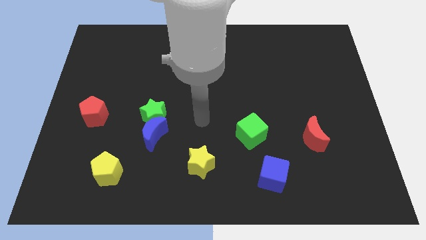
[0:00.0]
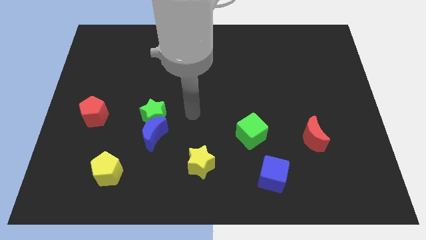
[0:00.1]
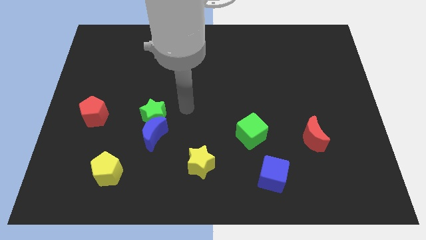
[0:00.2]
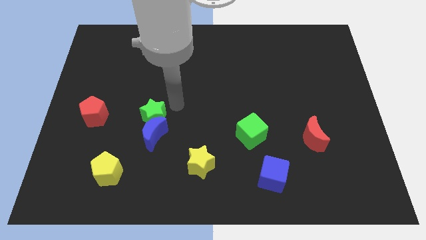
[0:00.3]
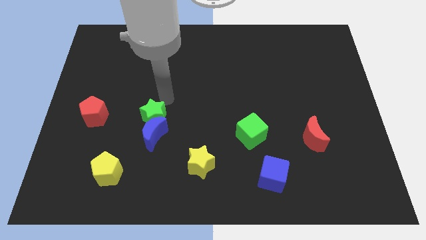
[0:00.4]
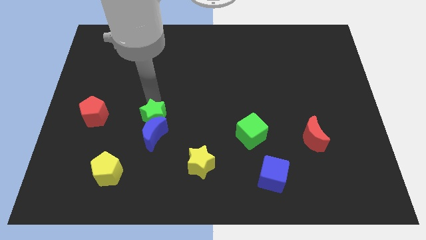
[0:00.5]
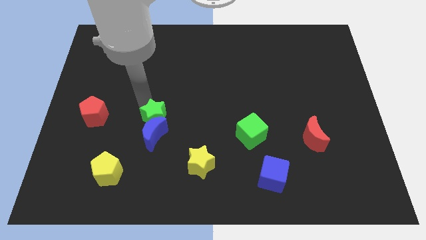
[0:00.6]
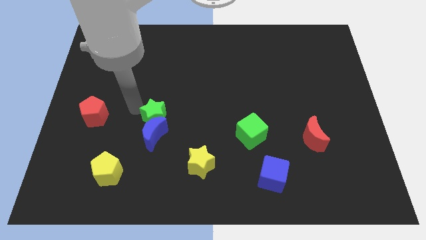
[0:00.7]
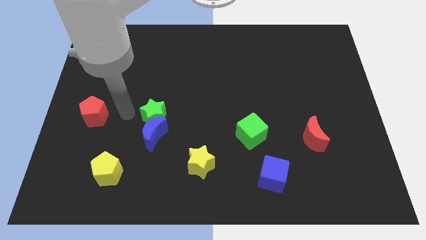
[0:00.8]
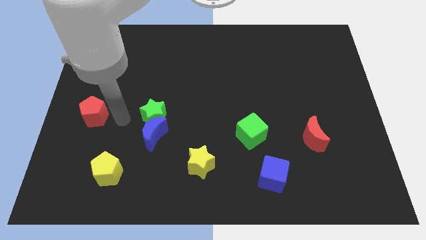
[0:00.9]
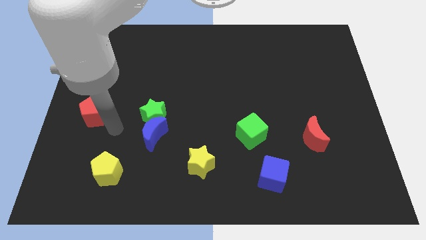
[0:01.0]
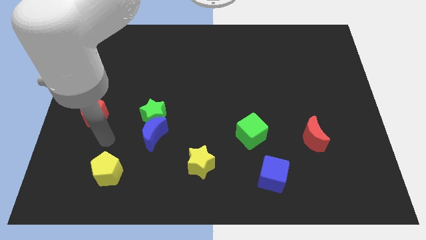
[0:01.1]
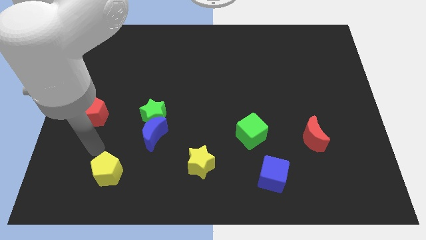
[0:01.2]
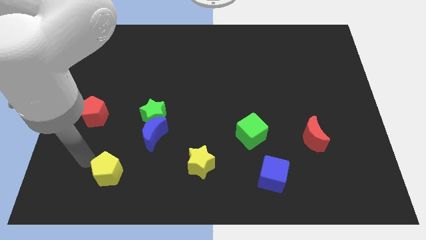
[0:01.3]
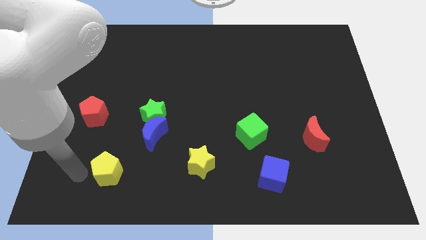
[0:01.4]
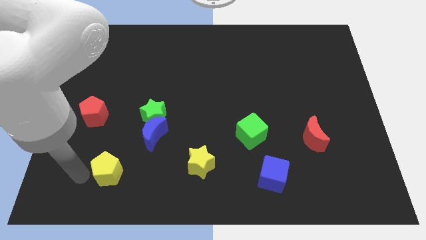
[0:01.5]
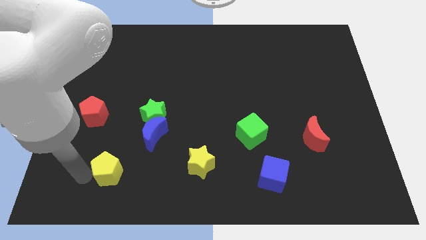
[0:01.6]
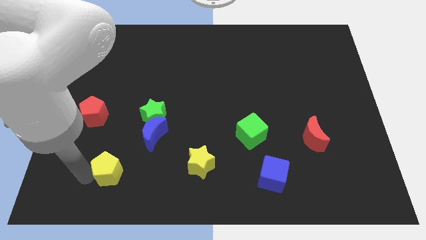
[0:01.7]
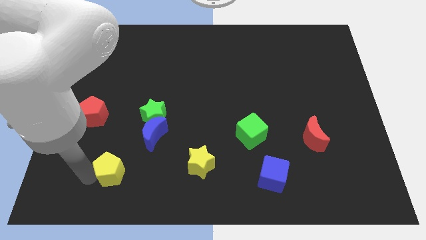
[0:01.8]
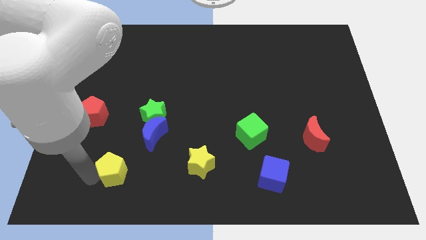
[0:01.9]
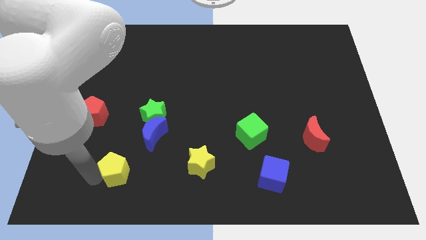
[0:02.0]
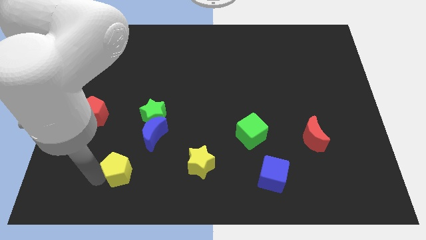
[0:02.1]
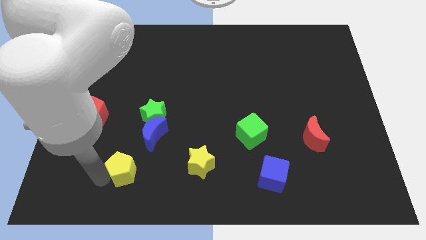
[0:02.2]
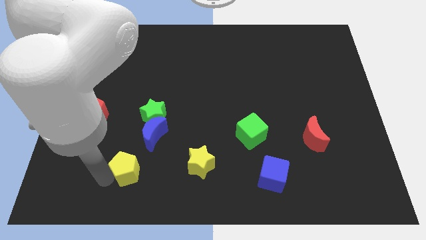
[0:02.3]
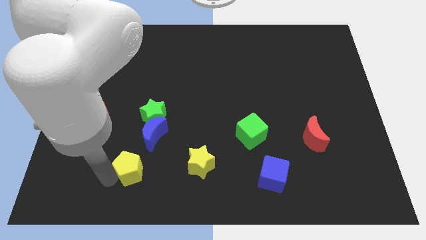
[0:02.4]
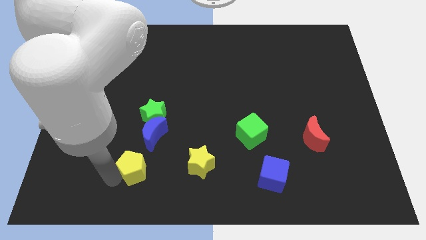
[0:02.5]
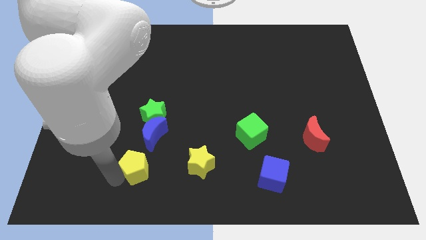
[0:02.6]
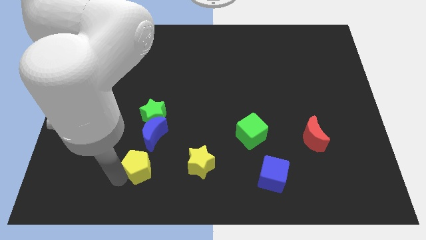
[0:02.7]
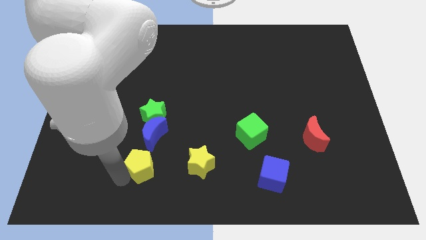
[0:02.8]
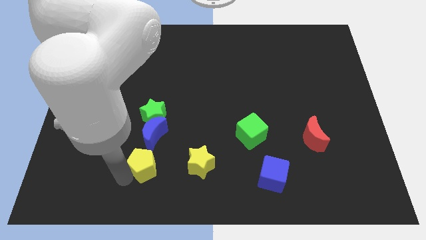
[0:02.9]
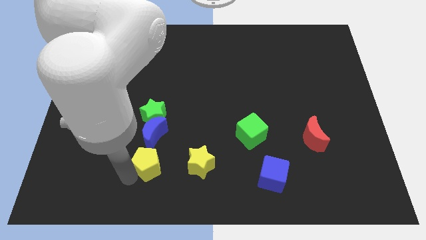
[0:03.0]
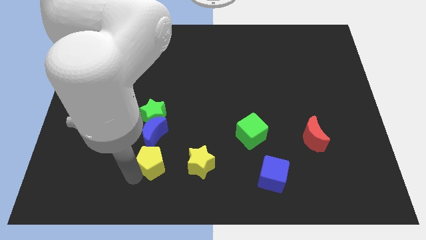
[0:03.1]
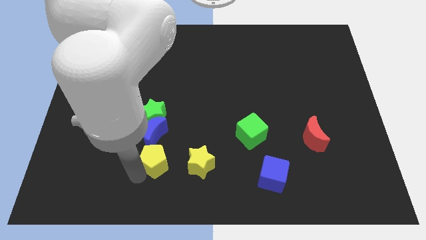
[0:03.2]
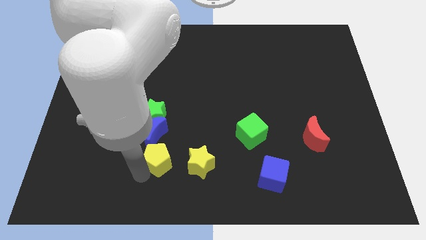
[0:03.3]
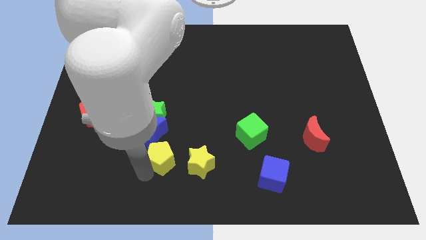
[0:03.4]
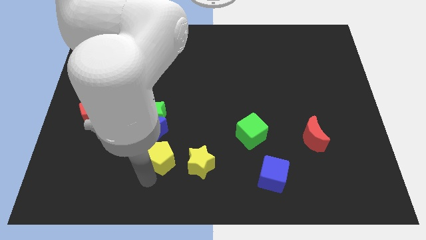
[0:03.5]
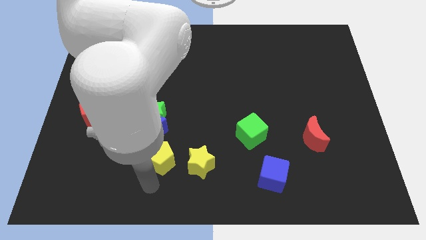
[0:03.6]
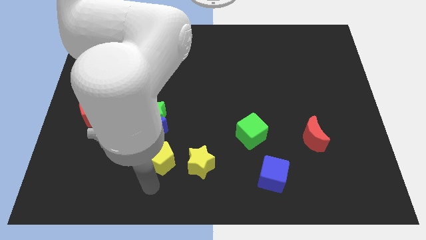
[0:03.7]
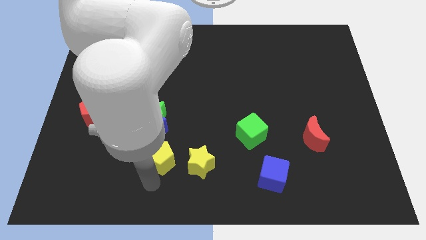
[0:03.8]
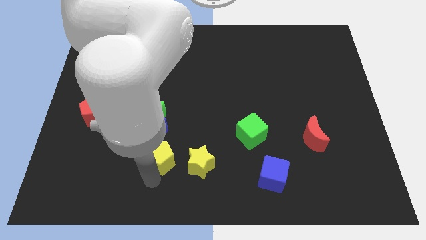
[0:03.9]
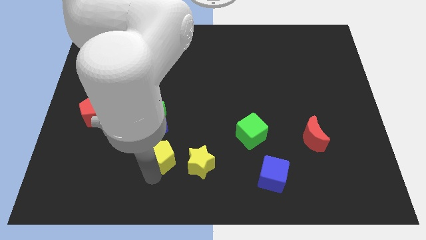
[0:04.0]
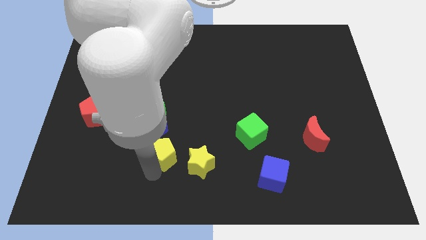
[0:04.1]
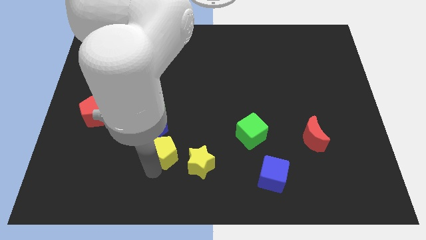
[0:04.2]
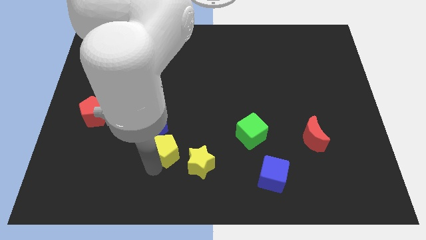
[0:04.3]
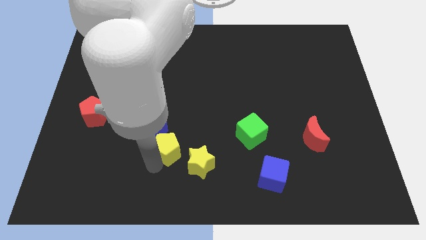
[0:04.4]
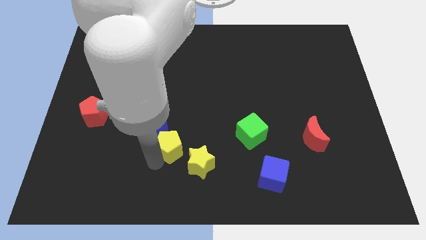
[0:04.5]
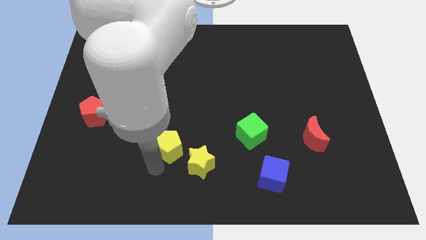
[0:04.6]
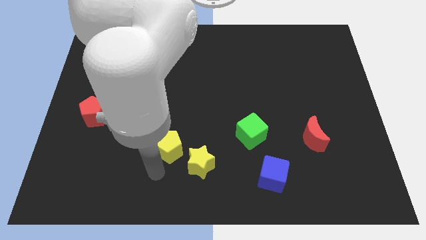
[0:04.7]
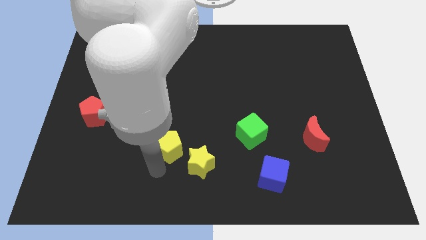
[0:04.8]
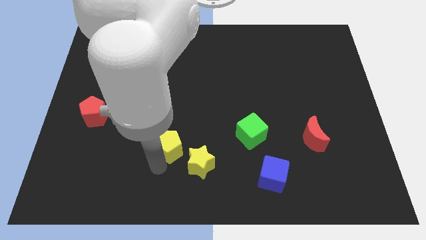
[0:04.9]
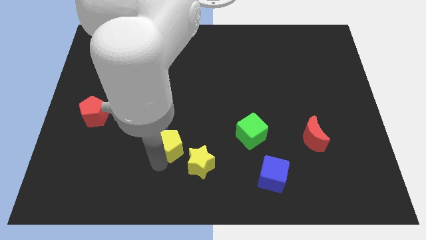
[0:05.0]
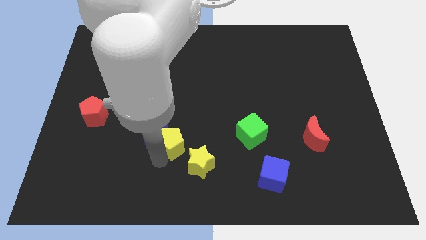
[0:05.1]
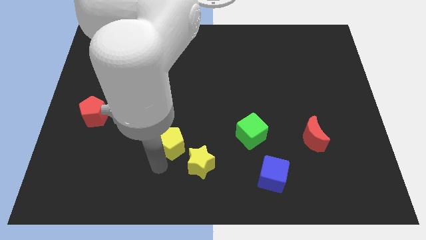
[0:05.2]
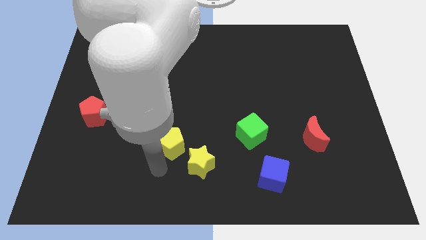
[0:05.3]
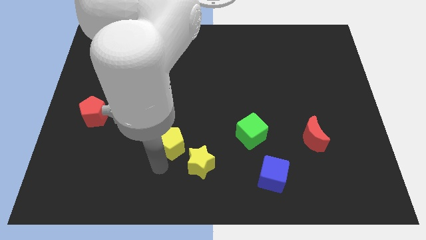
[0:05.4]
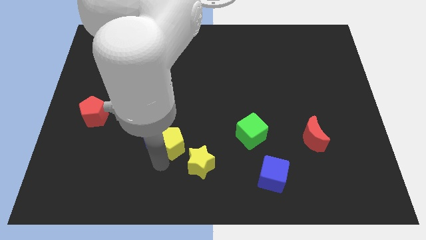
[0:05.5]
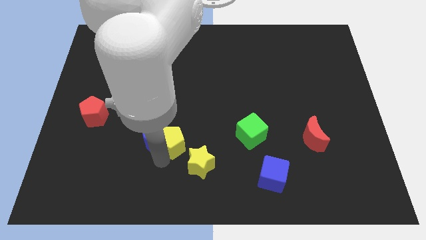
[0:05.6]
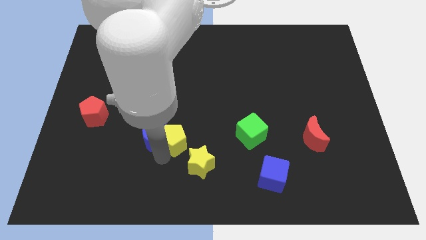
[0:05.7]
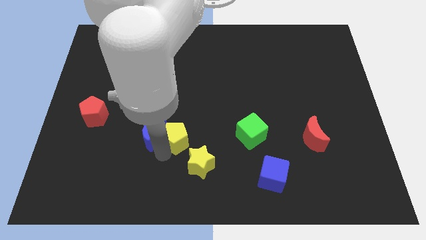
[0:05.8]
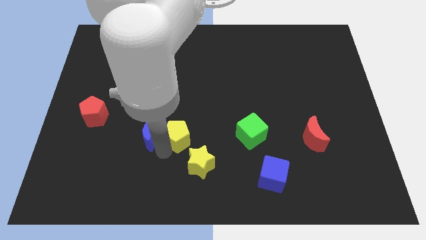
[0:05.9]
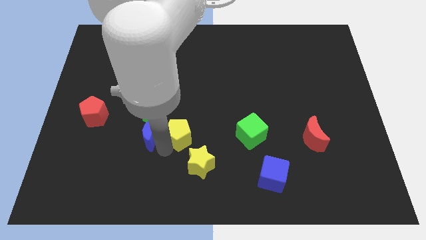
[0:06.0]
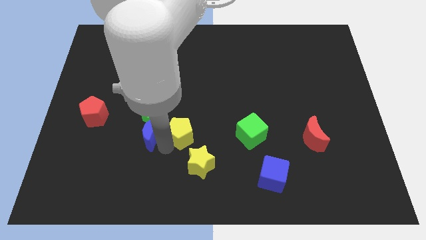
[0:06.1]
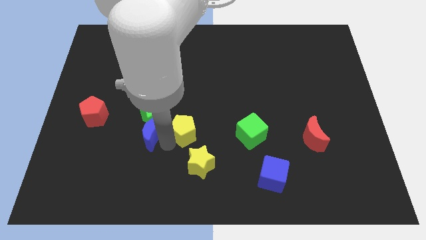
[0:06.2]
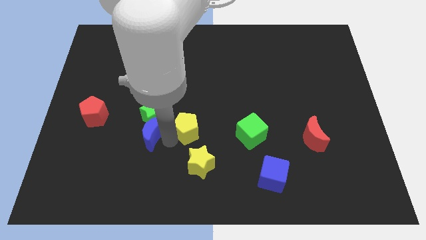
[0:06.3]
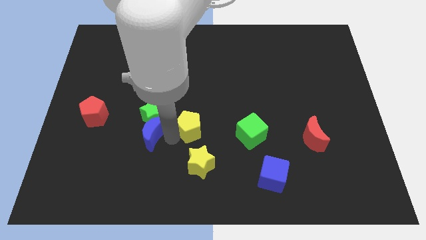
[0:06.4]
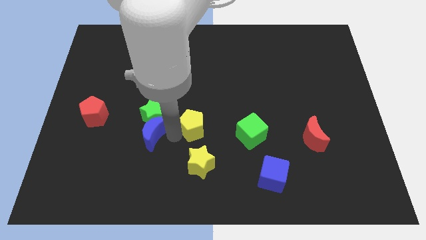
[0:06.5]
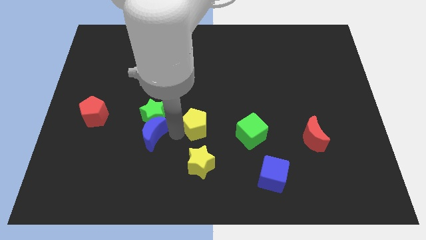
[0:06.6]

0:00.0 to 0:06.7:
push the yellow pentagon diagonally up and right

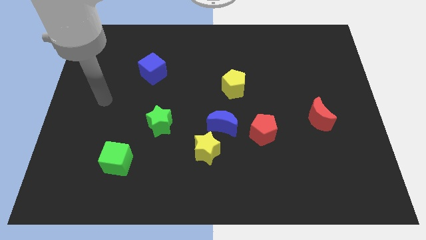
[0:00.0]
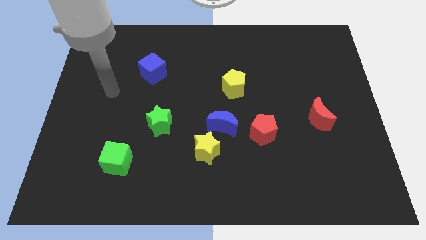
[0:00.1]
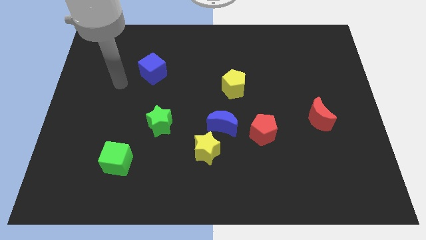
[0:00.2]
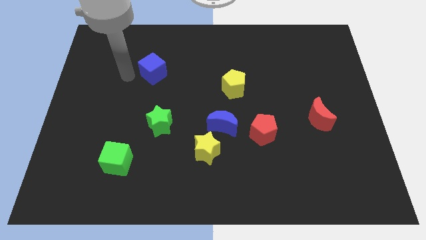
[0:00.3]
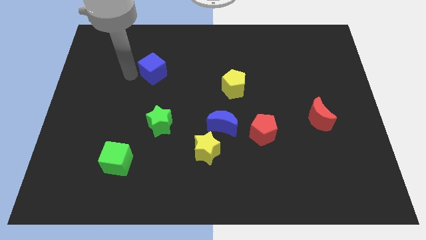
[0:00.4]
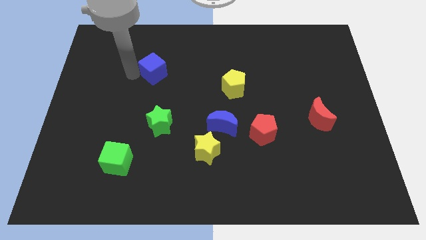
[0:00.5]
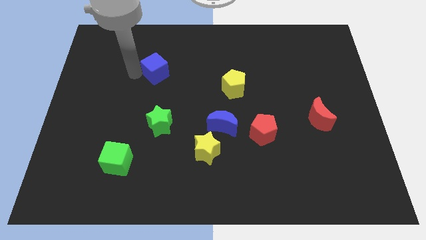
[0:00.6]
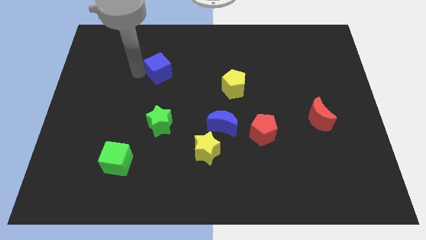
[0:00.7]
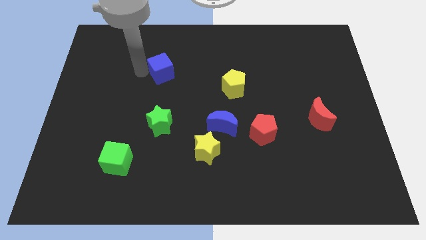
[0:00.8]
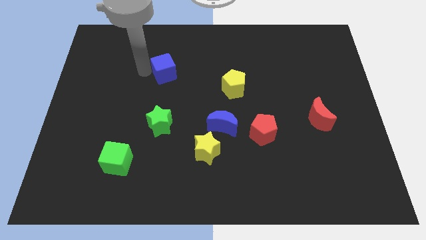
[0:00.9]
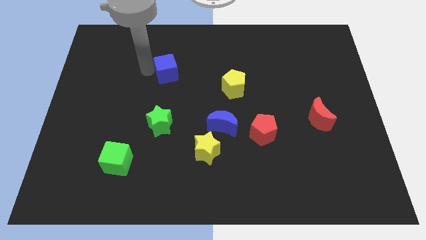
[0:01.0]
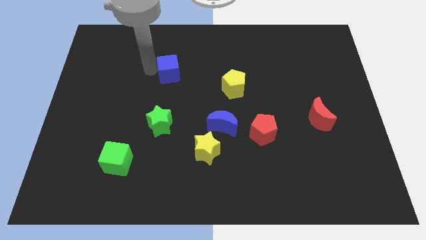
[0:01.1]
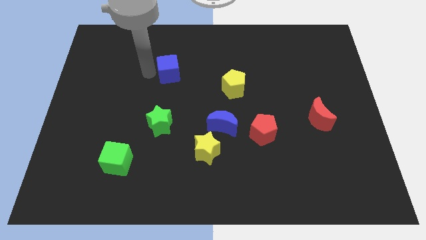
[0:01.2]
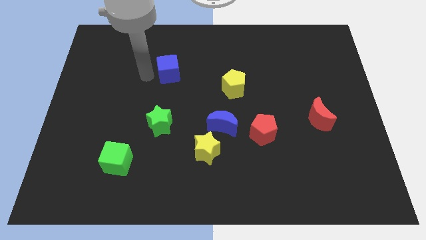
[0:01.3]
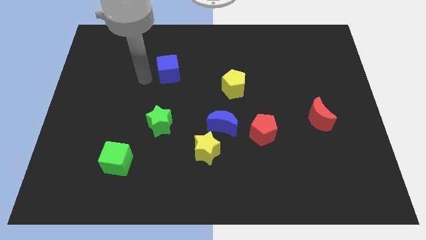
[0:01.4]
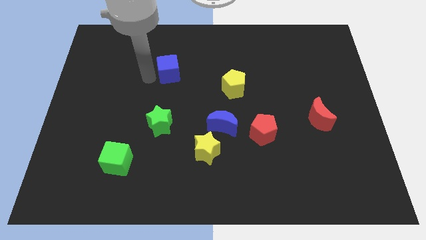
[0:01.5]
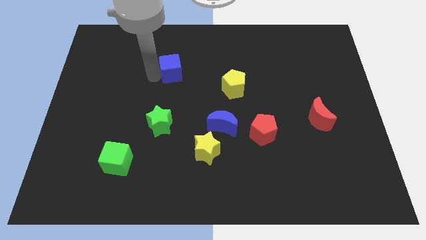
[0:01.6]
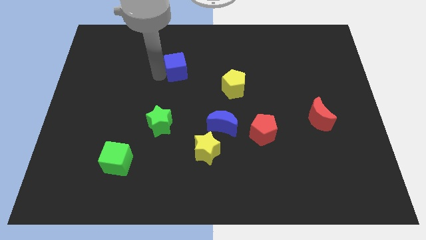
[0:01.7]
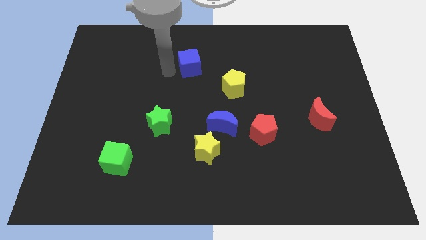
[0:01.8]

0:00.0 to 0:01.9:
slide the blue cube a little to the right
